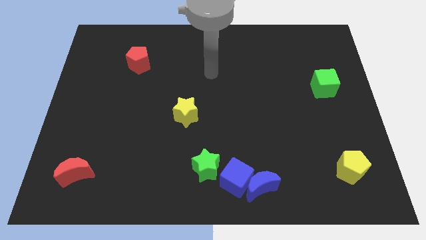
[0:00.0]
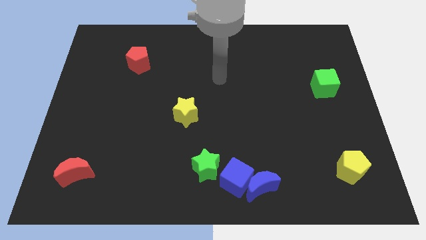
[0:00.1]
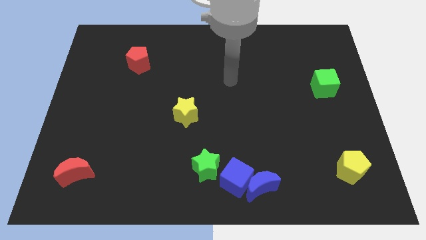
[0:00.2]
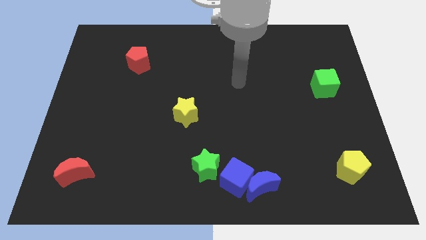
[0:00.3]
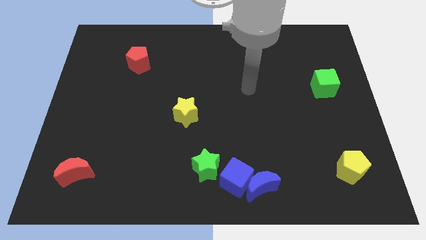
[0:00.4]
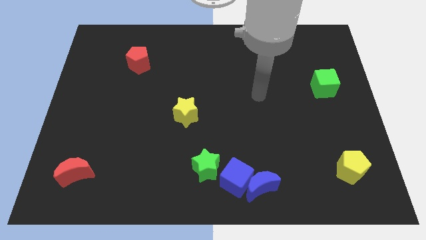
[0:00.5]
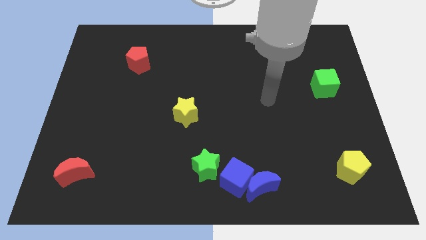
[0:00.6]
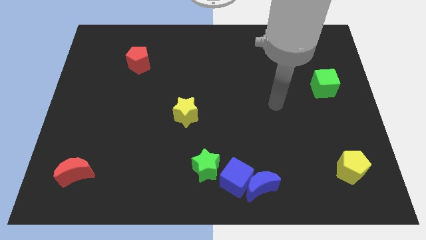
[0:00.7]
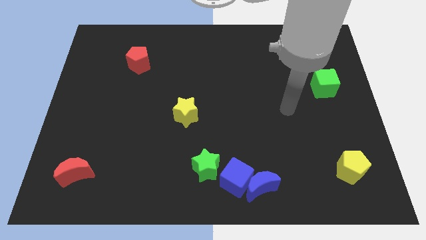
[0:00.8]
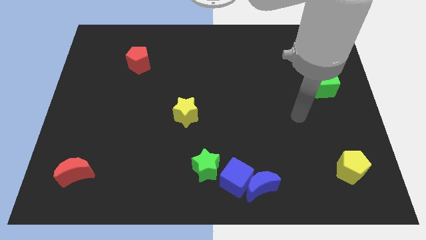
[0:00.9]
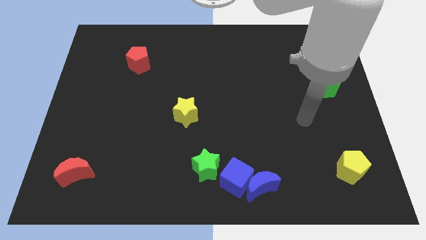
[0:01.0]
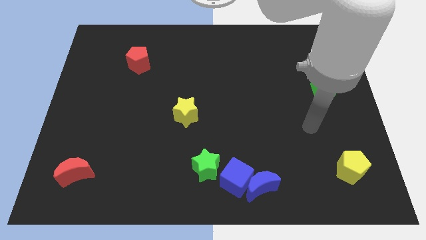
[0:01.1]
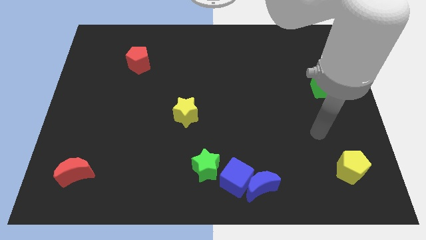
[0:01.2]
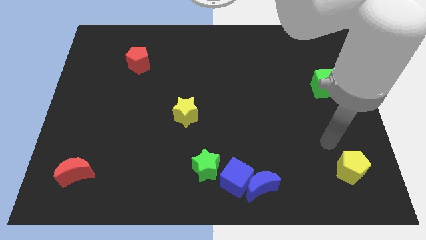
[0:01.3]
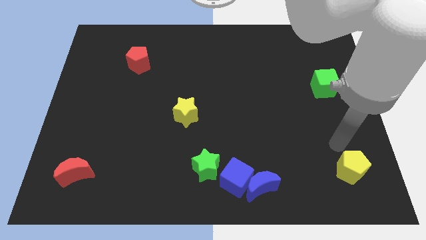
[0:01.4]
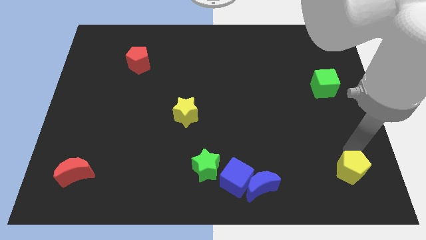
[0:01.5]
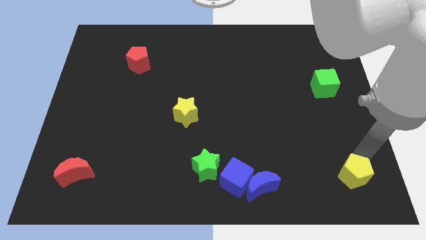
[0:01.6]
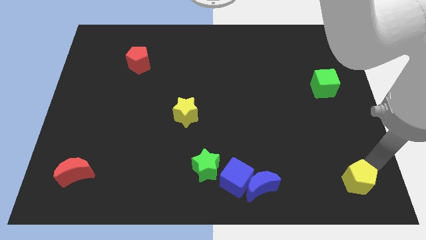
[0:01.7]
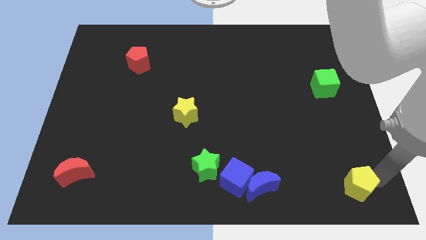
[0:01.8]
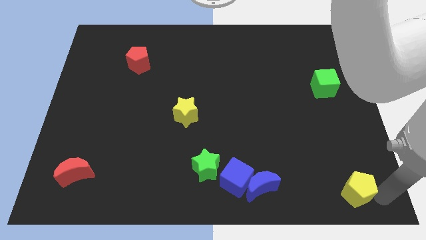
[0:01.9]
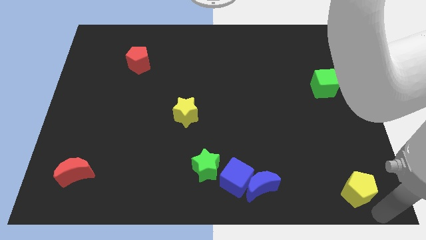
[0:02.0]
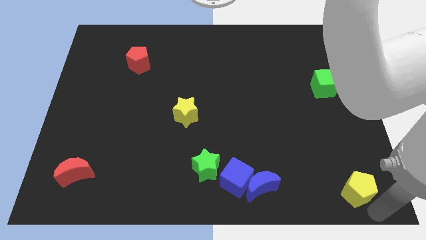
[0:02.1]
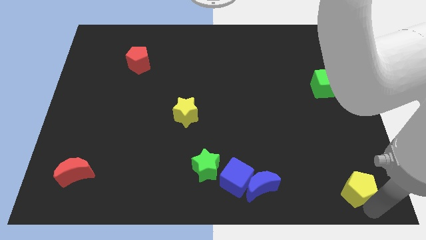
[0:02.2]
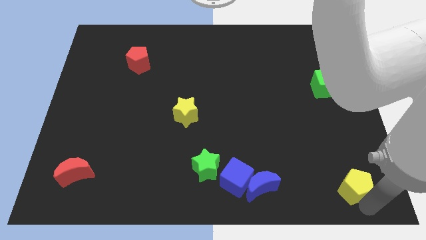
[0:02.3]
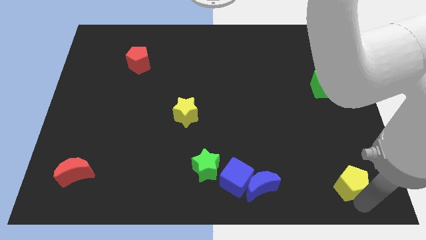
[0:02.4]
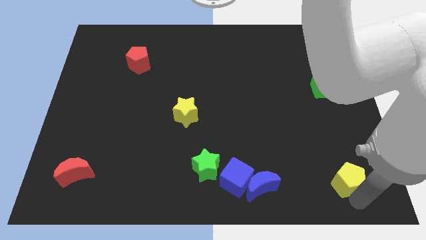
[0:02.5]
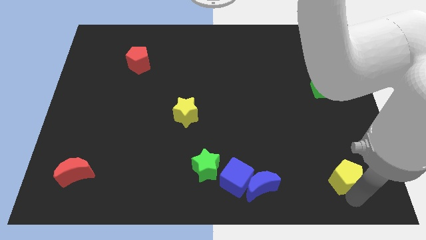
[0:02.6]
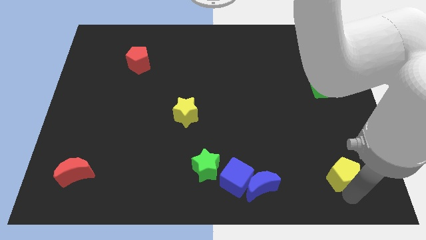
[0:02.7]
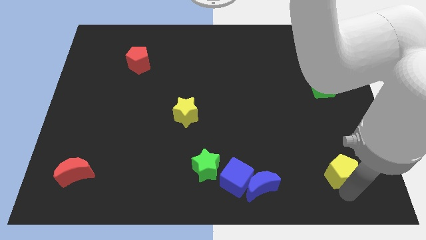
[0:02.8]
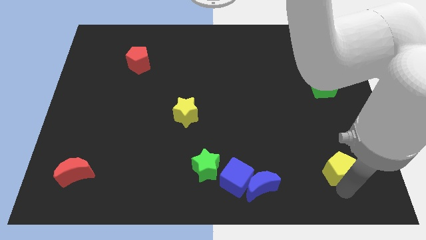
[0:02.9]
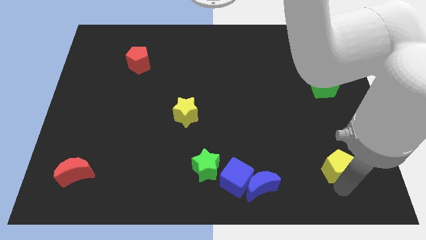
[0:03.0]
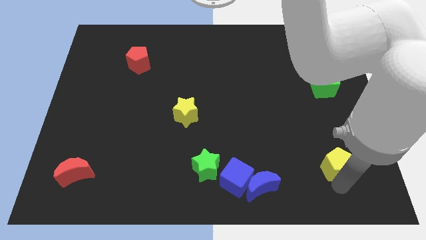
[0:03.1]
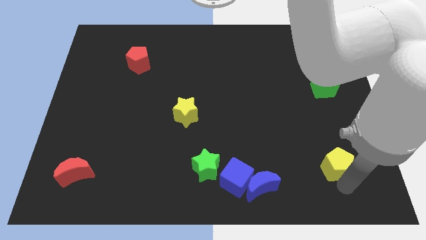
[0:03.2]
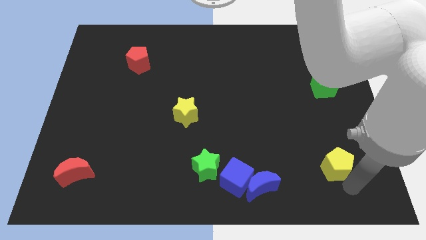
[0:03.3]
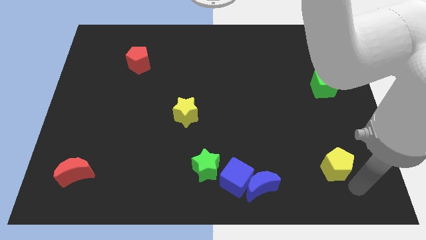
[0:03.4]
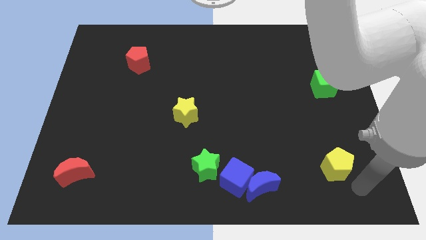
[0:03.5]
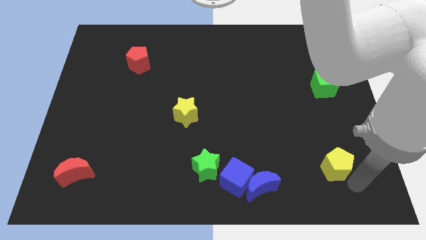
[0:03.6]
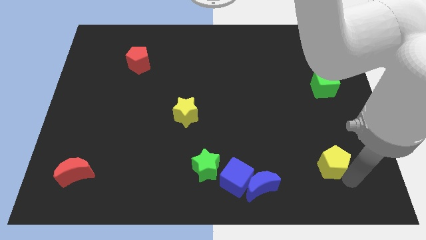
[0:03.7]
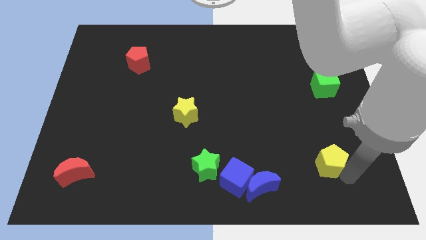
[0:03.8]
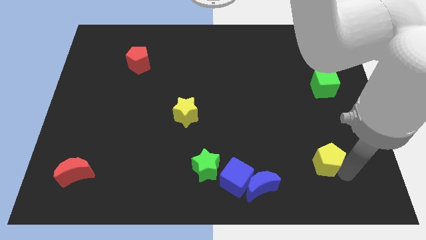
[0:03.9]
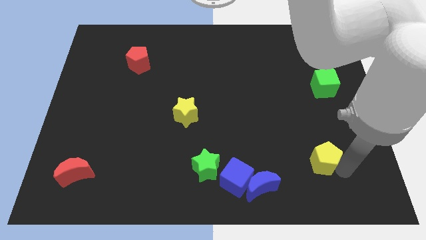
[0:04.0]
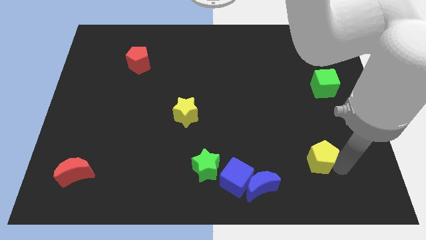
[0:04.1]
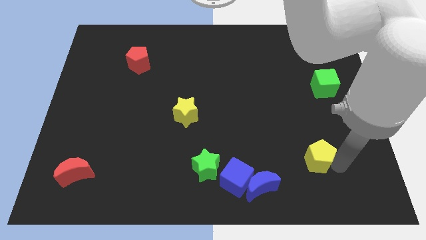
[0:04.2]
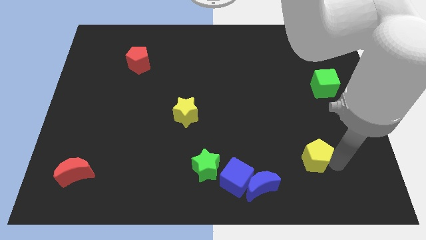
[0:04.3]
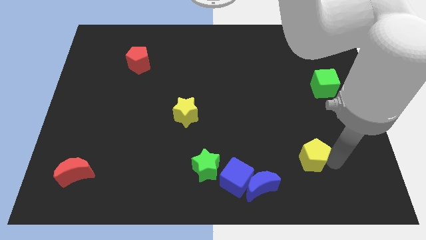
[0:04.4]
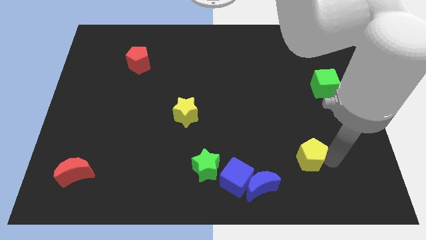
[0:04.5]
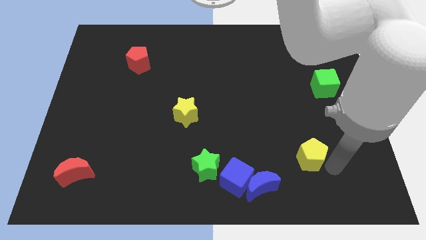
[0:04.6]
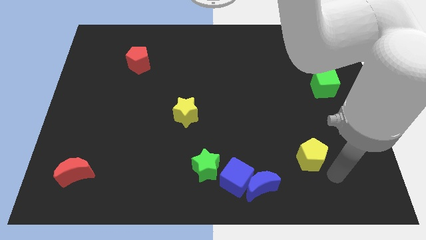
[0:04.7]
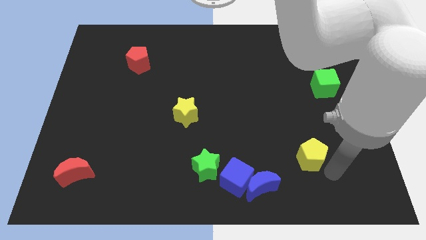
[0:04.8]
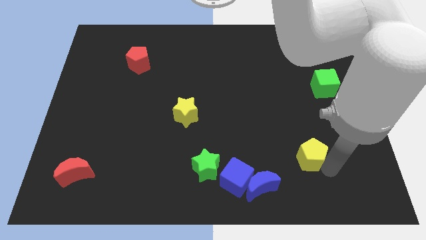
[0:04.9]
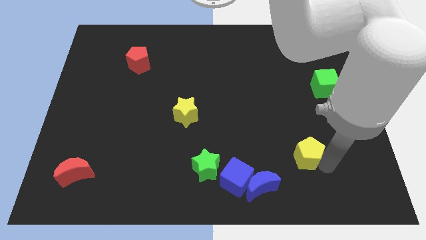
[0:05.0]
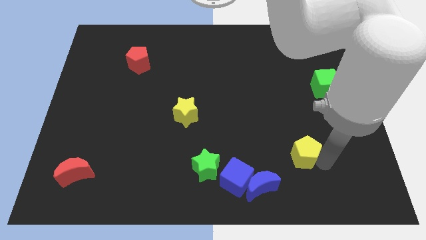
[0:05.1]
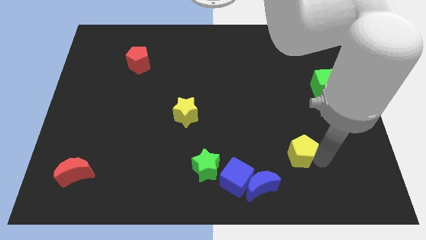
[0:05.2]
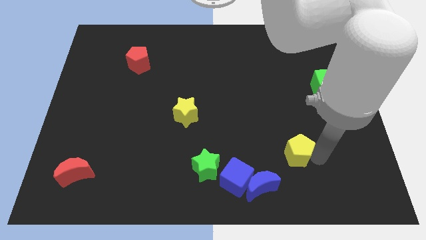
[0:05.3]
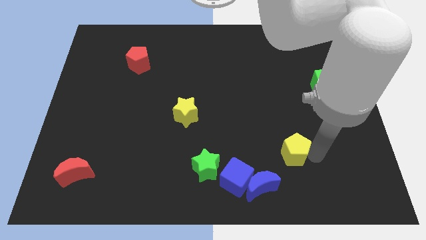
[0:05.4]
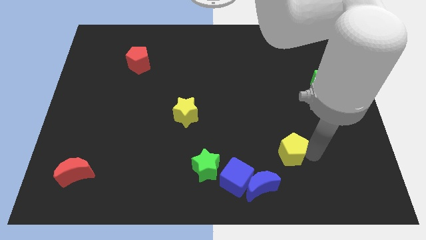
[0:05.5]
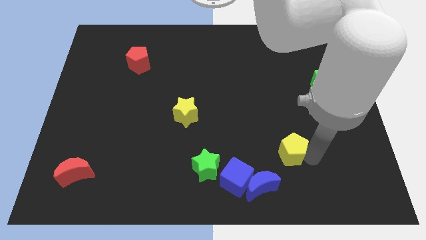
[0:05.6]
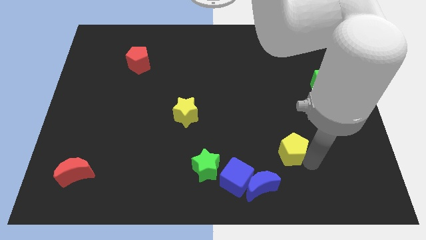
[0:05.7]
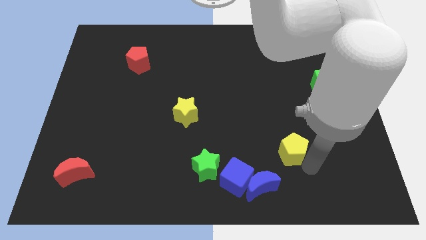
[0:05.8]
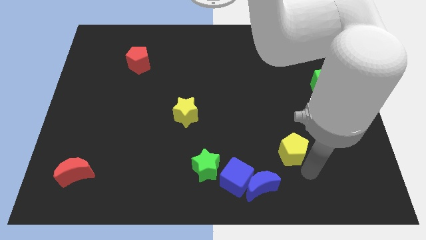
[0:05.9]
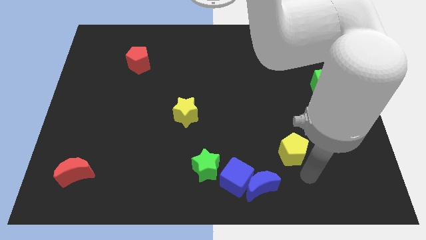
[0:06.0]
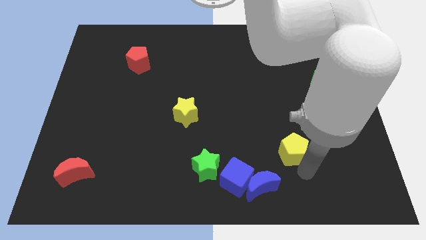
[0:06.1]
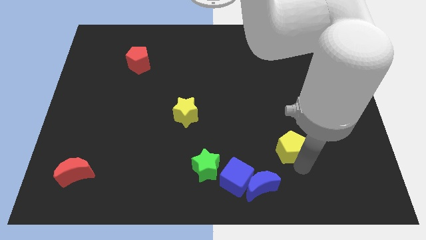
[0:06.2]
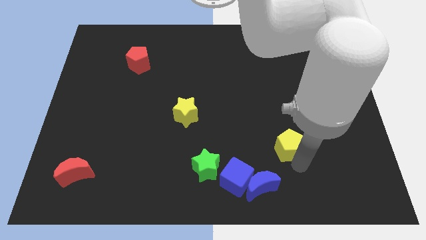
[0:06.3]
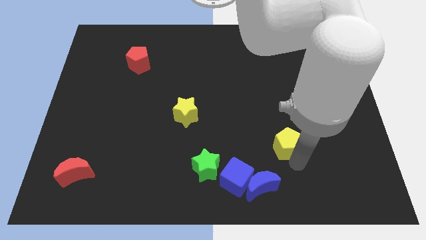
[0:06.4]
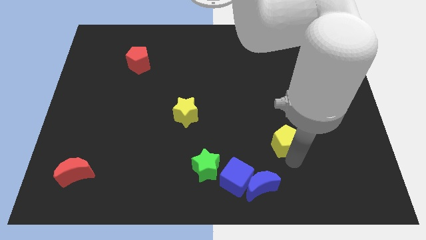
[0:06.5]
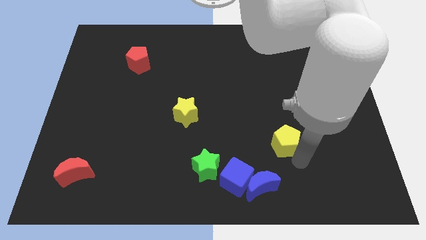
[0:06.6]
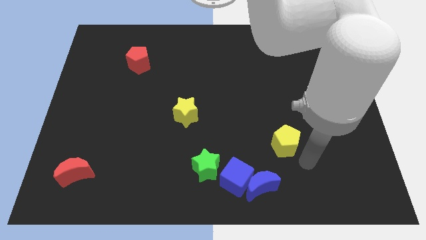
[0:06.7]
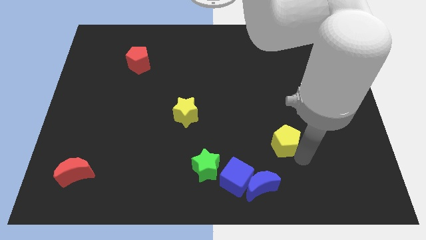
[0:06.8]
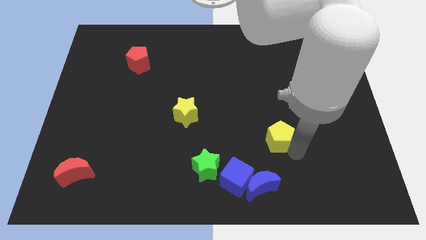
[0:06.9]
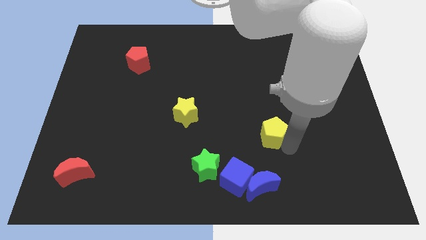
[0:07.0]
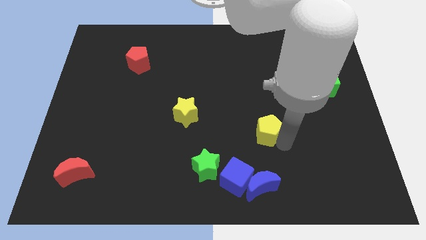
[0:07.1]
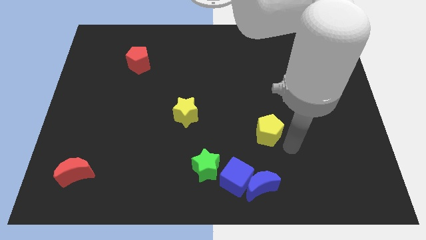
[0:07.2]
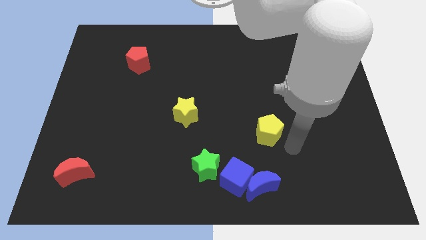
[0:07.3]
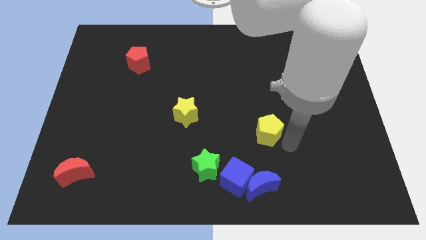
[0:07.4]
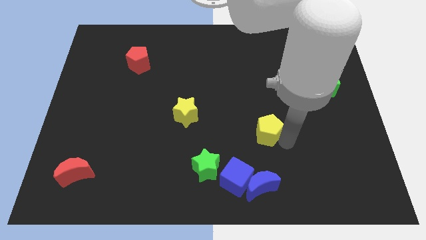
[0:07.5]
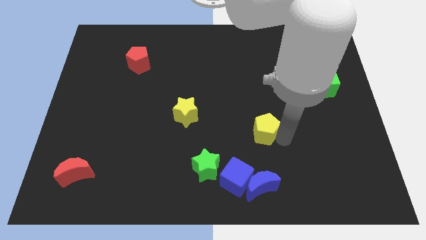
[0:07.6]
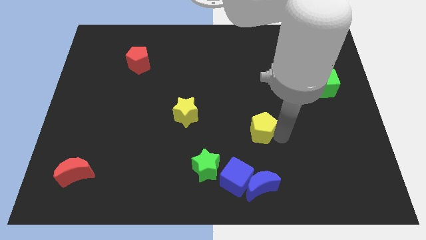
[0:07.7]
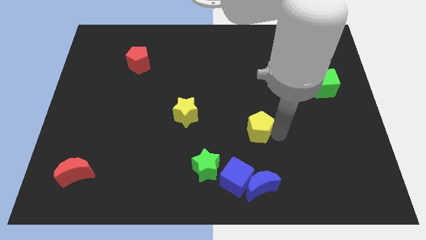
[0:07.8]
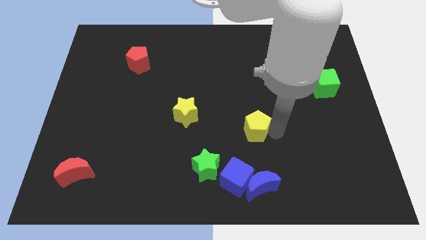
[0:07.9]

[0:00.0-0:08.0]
move the yellow pentagon to the middle
